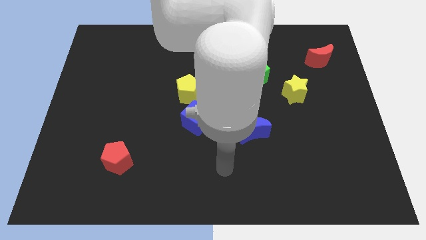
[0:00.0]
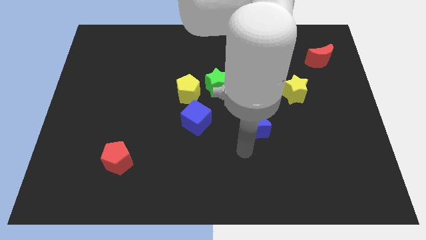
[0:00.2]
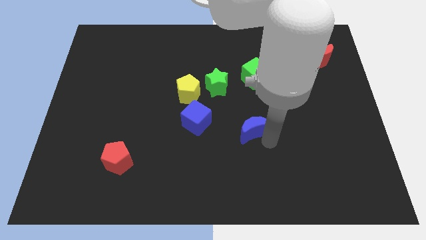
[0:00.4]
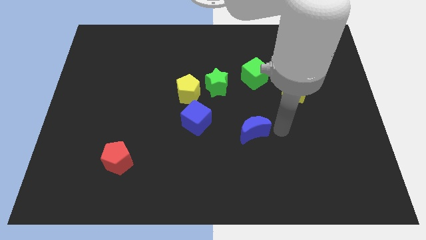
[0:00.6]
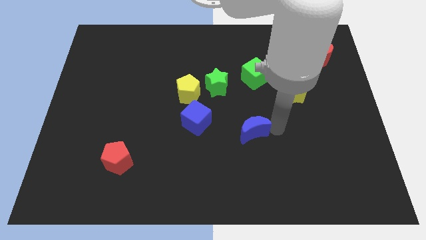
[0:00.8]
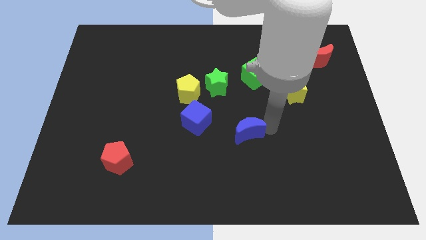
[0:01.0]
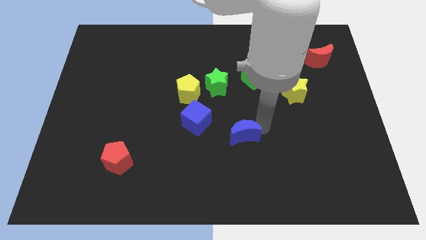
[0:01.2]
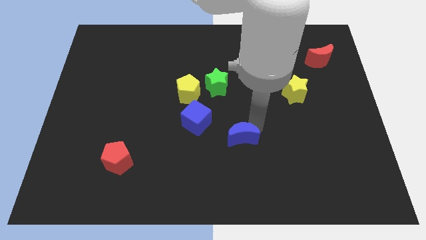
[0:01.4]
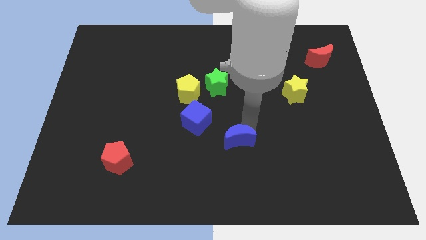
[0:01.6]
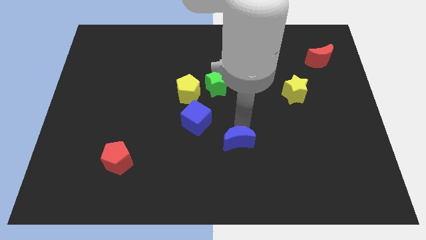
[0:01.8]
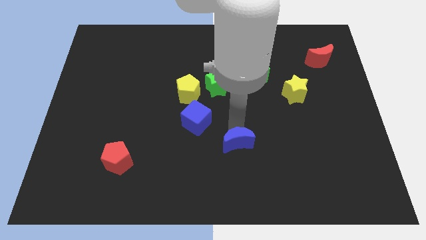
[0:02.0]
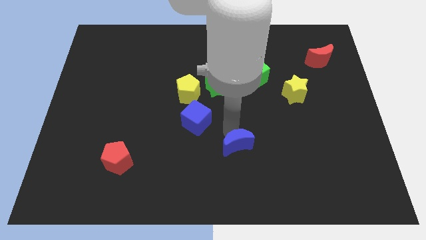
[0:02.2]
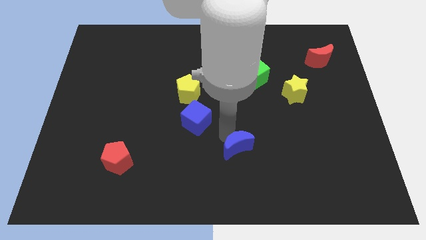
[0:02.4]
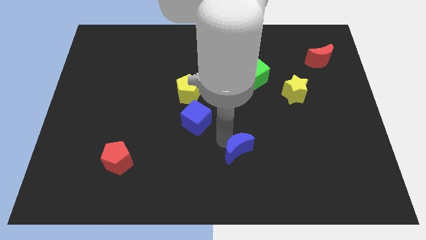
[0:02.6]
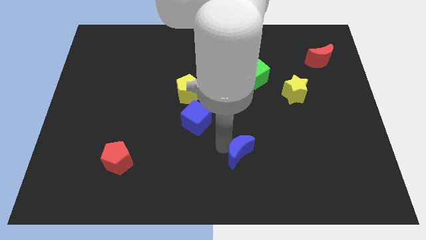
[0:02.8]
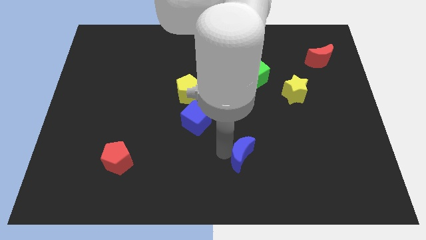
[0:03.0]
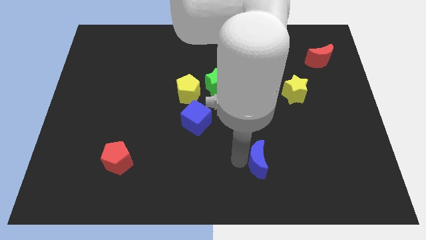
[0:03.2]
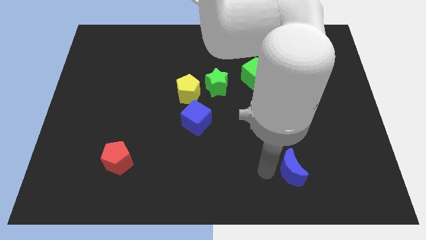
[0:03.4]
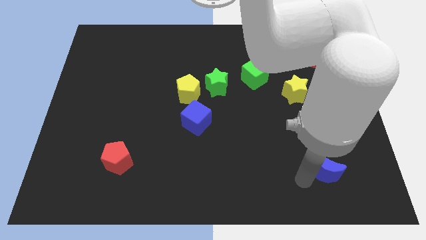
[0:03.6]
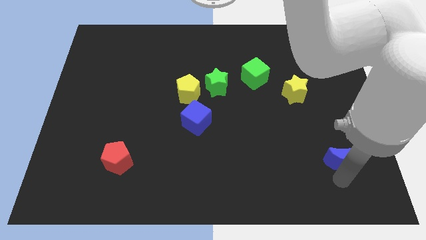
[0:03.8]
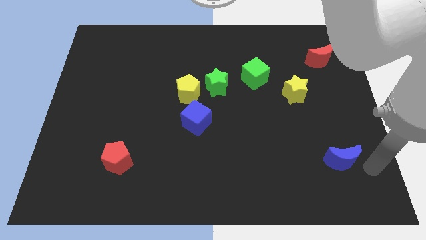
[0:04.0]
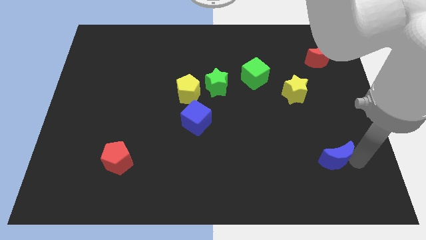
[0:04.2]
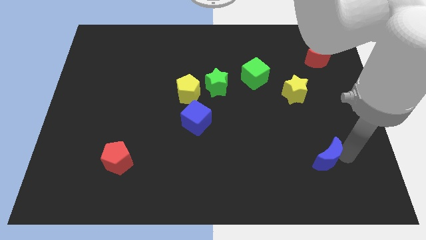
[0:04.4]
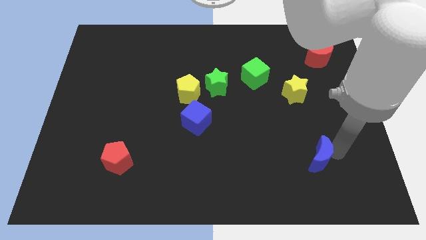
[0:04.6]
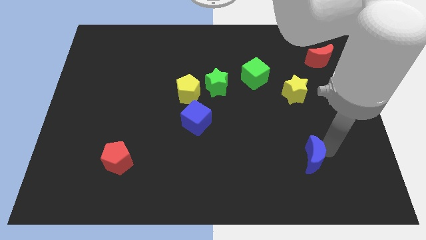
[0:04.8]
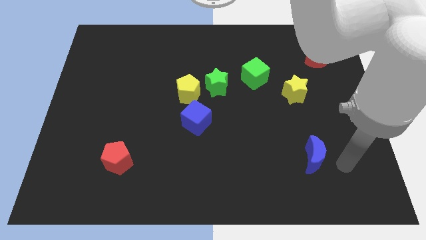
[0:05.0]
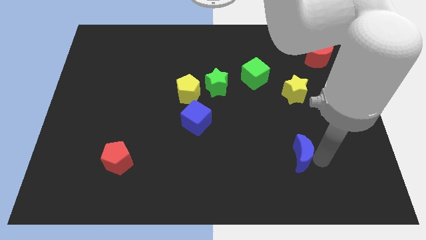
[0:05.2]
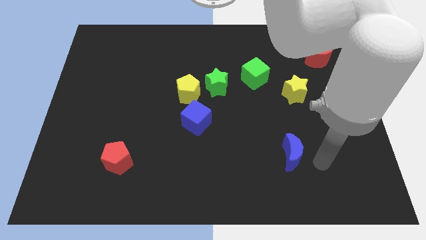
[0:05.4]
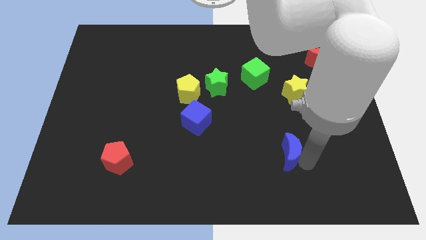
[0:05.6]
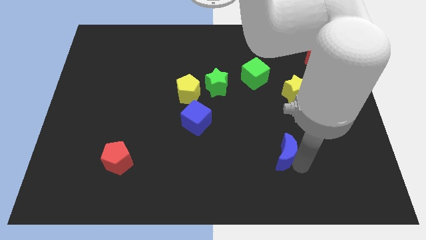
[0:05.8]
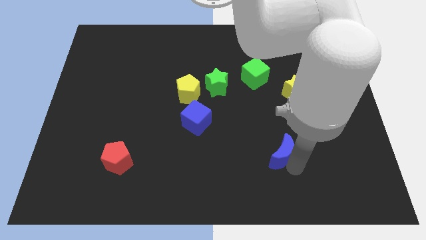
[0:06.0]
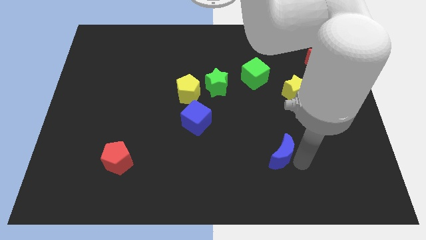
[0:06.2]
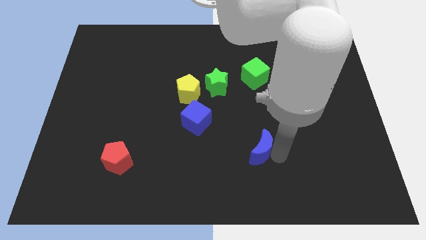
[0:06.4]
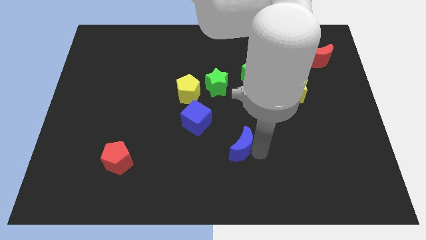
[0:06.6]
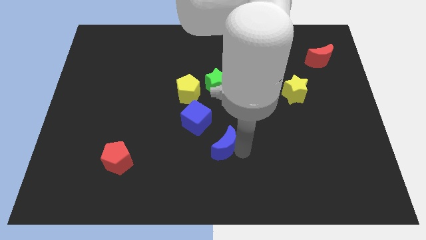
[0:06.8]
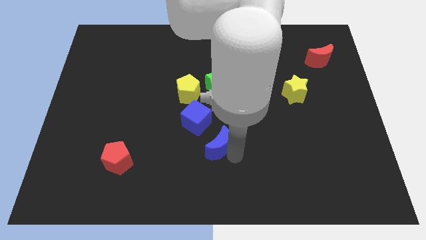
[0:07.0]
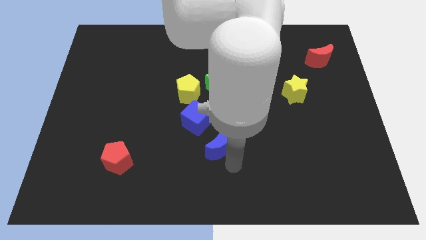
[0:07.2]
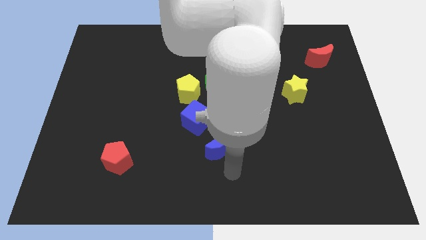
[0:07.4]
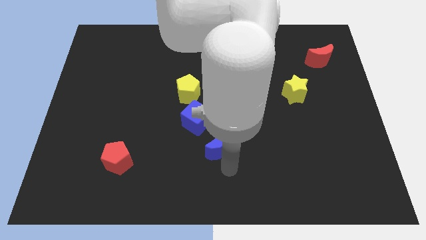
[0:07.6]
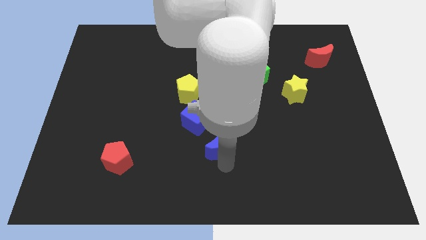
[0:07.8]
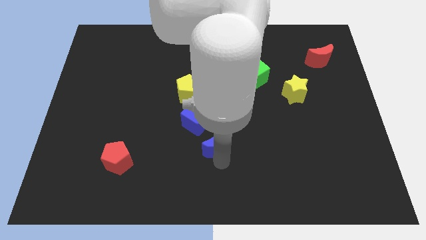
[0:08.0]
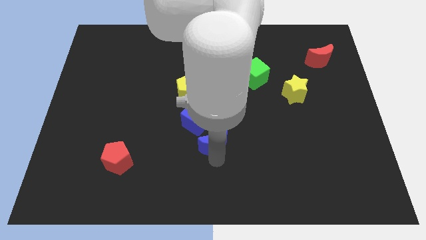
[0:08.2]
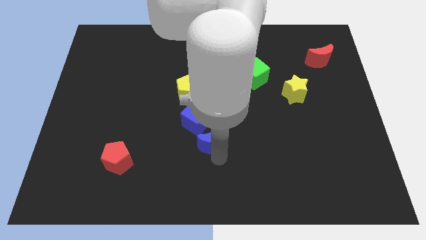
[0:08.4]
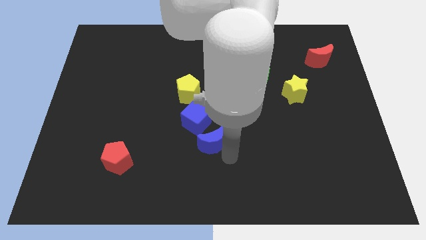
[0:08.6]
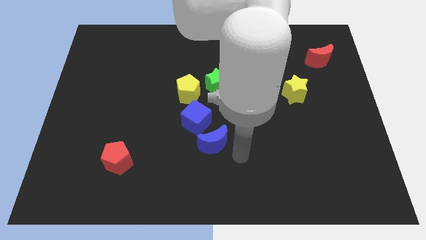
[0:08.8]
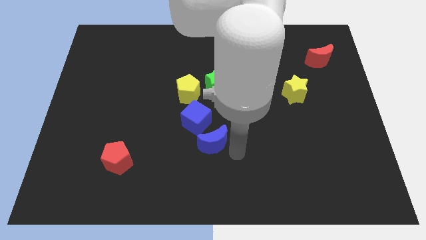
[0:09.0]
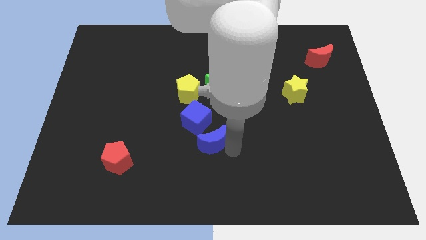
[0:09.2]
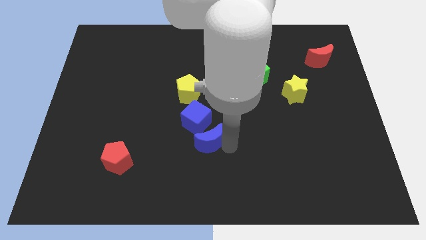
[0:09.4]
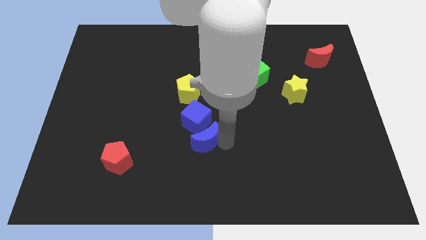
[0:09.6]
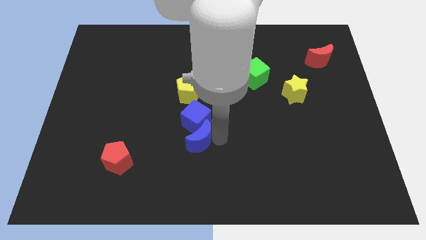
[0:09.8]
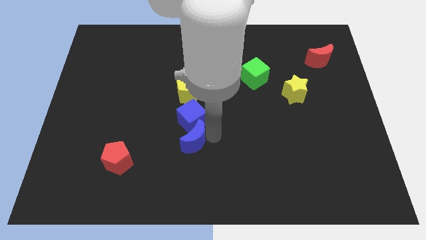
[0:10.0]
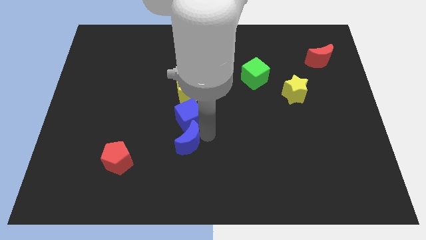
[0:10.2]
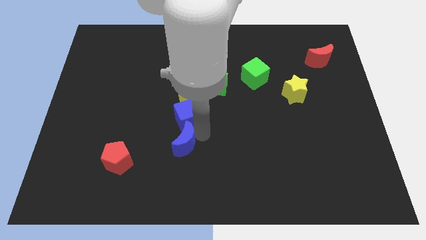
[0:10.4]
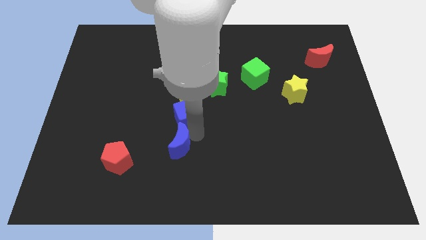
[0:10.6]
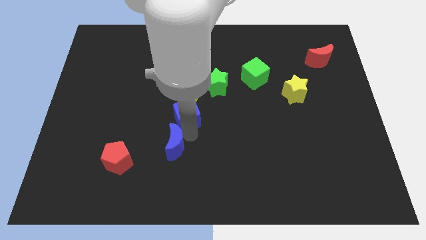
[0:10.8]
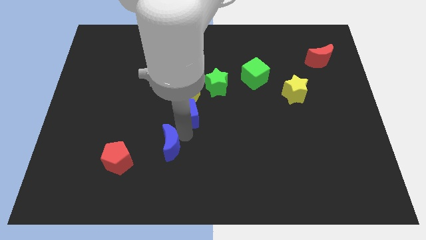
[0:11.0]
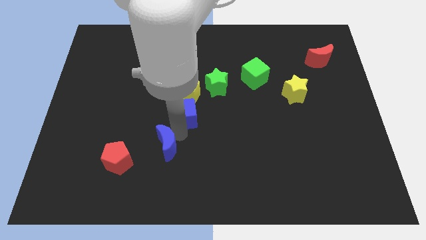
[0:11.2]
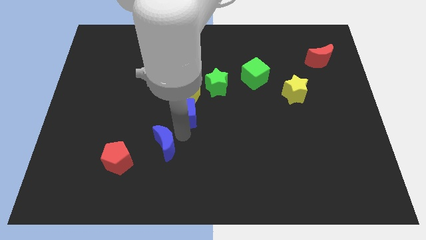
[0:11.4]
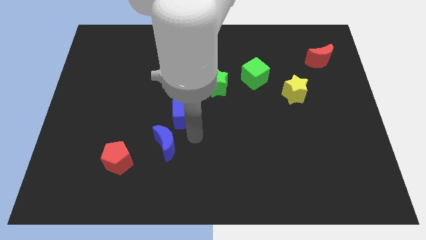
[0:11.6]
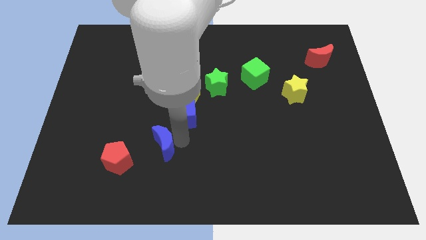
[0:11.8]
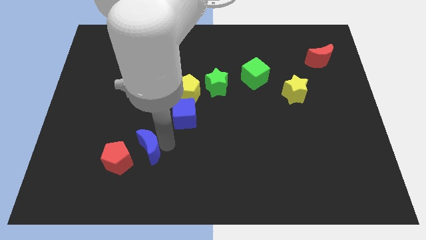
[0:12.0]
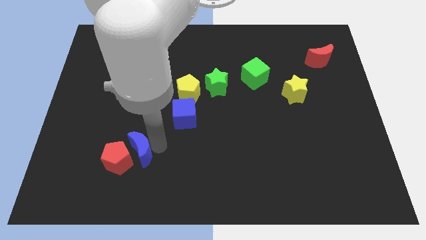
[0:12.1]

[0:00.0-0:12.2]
move the blue moon next to the red pentagon
